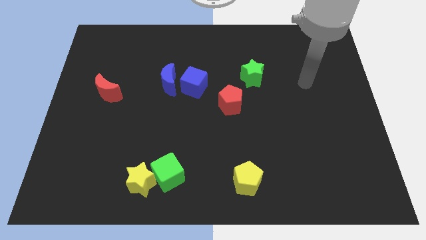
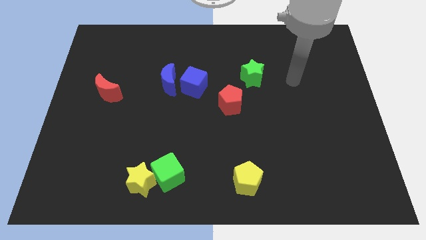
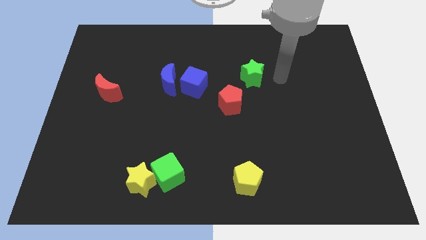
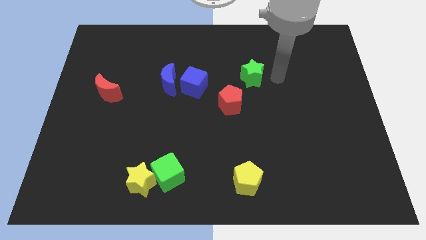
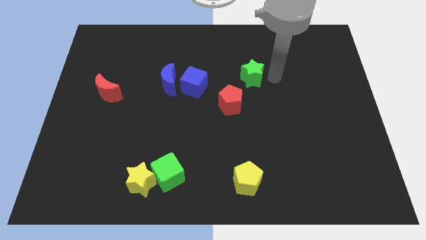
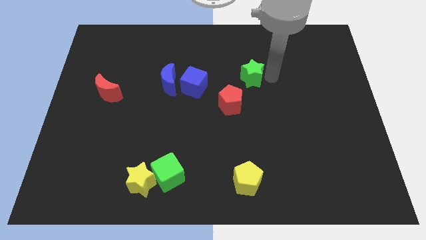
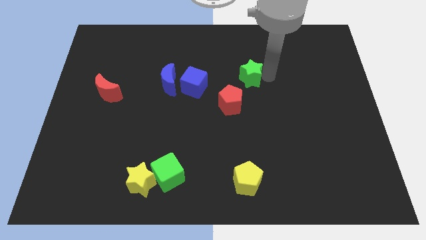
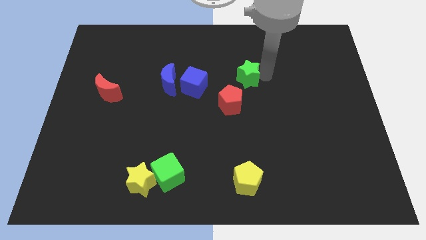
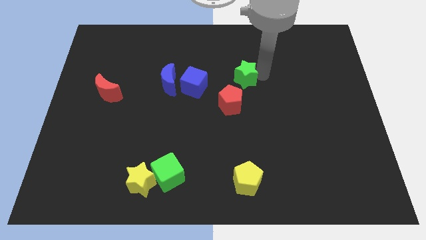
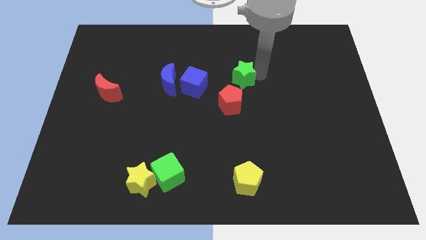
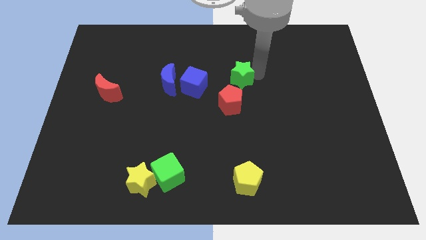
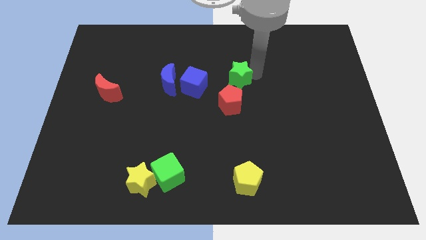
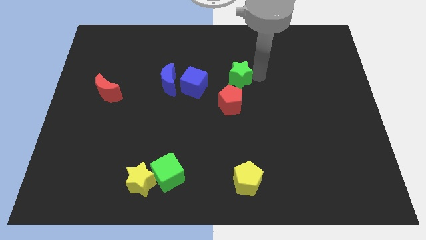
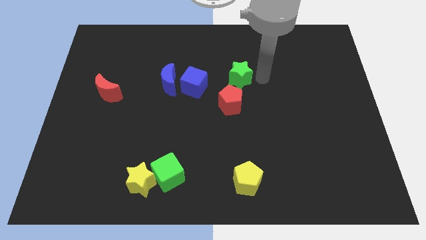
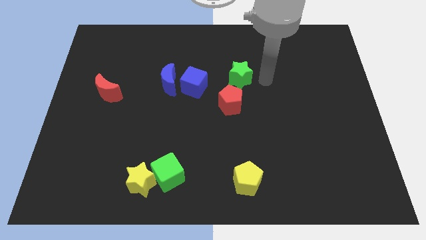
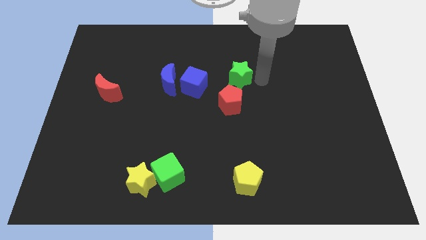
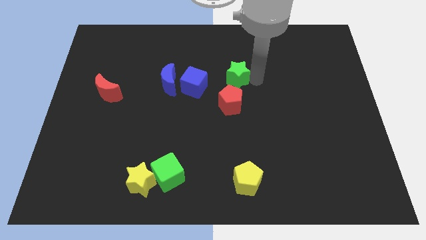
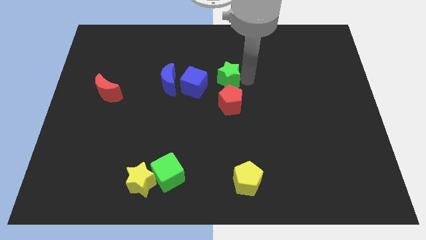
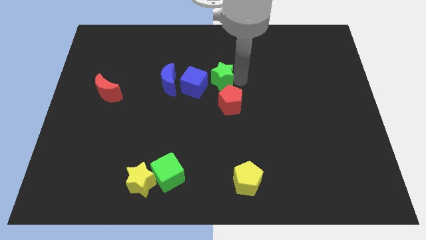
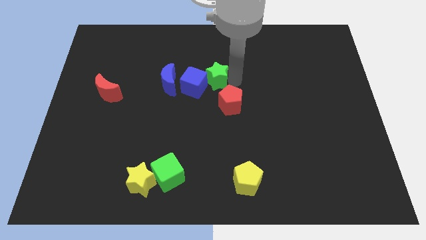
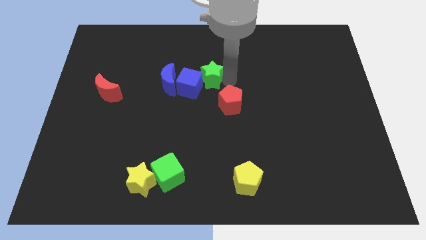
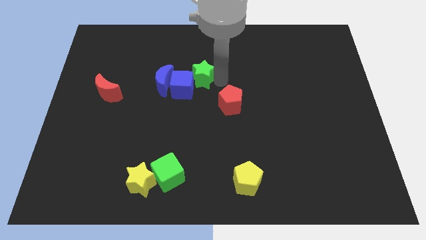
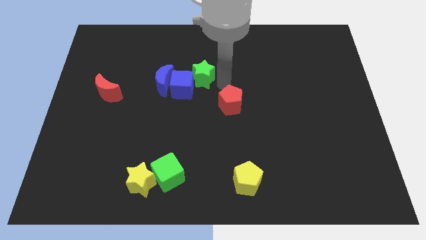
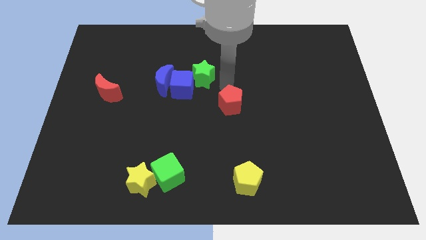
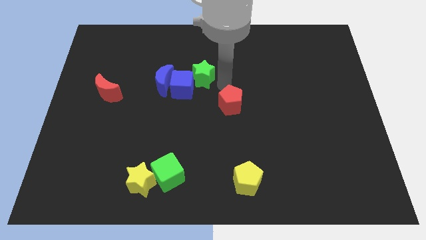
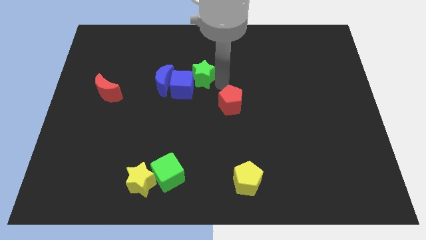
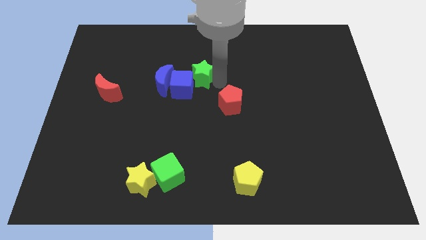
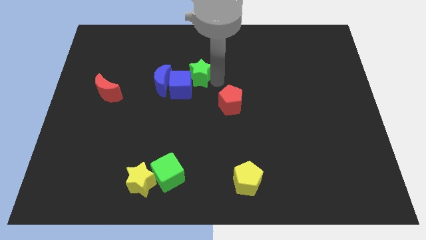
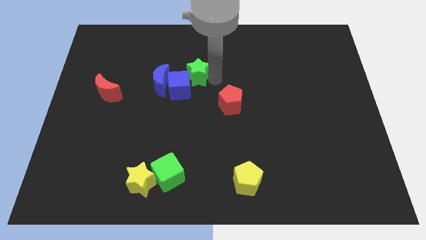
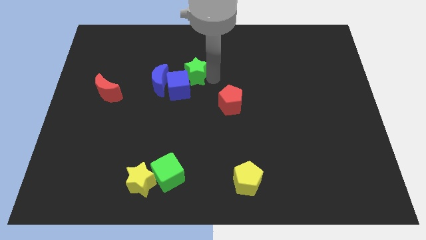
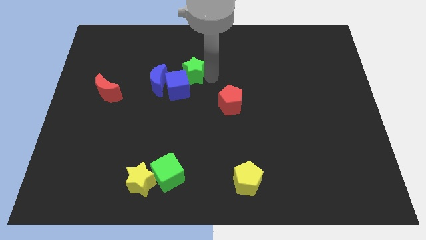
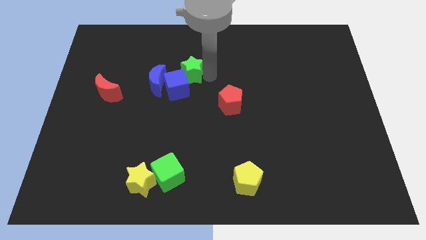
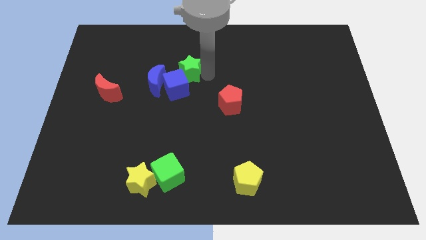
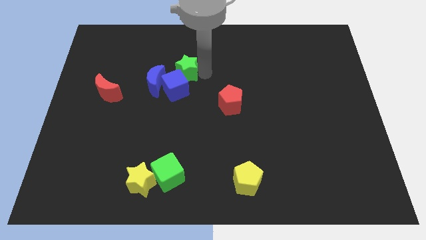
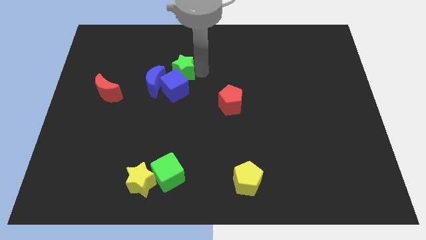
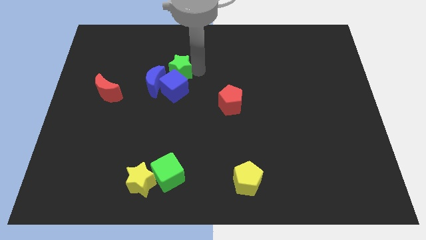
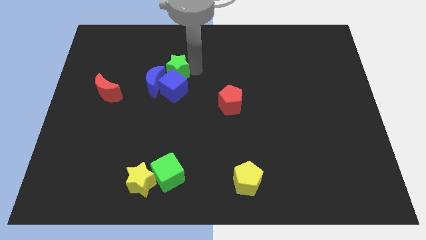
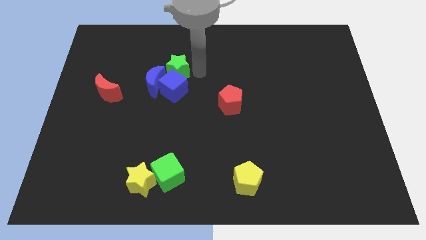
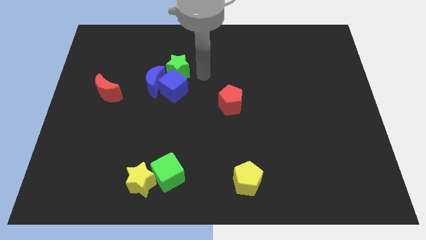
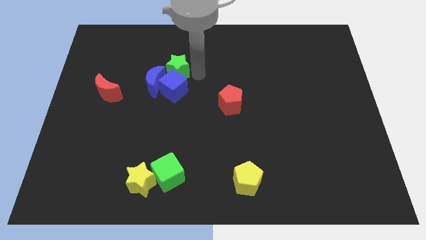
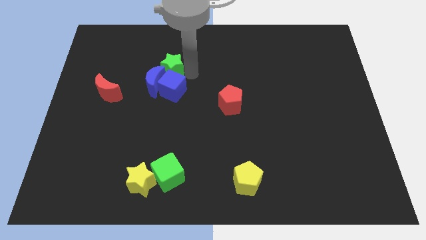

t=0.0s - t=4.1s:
move the green star left

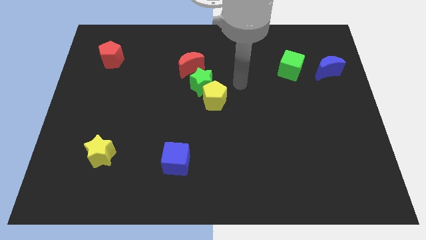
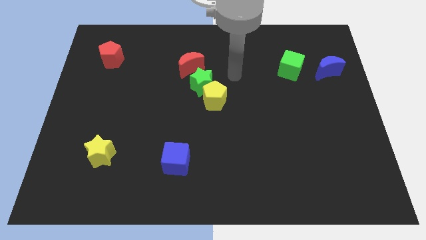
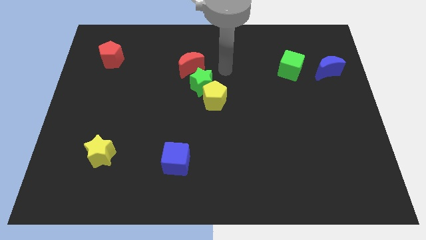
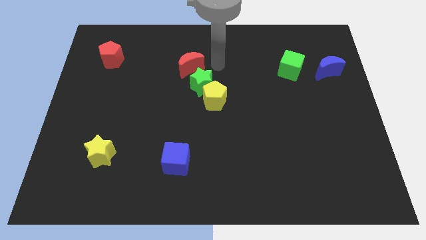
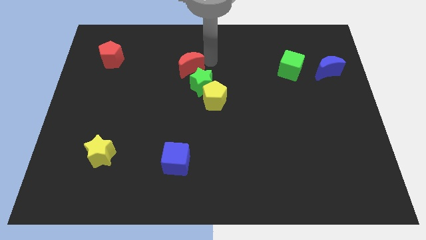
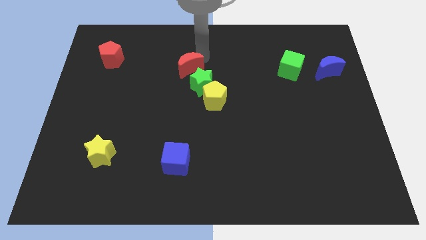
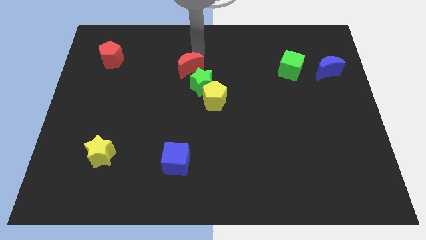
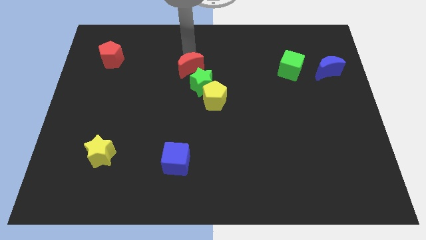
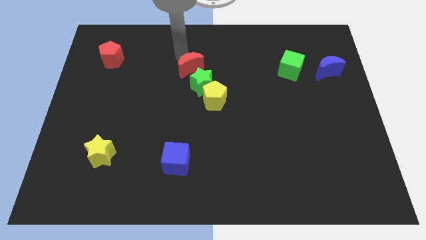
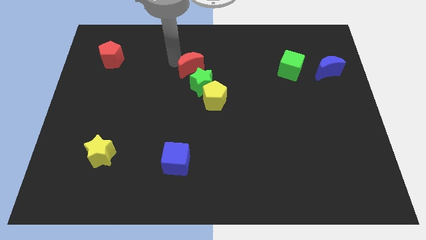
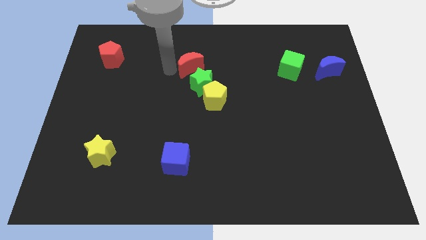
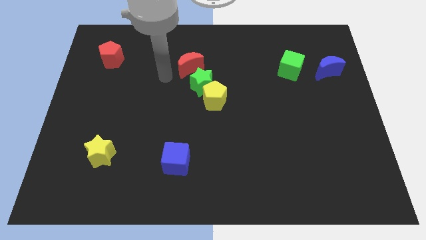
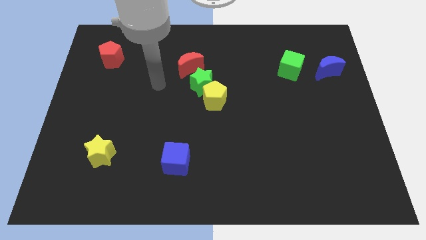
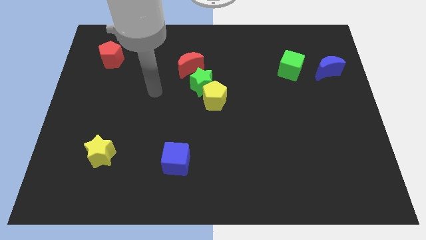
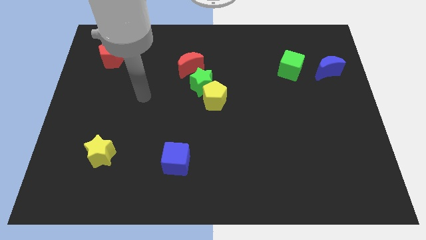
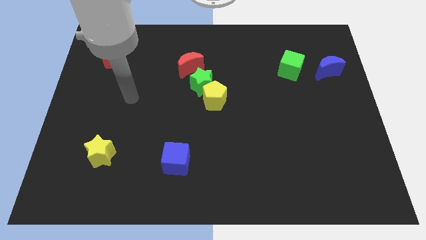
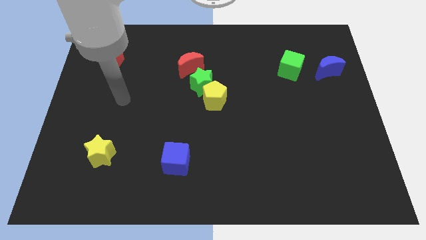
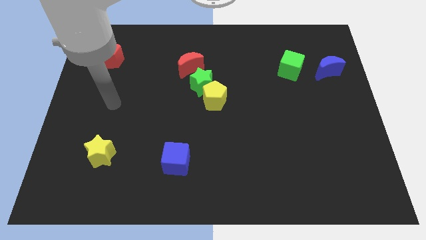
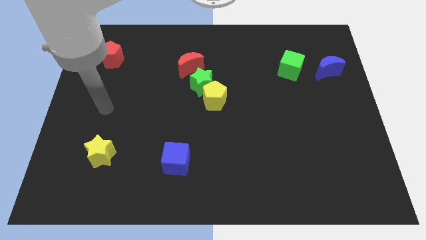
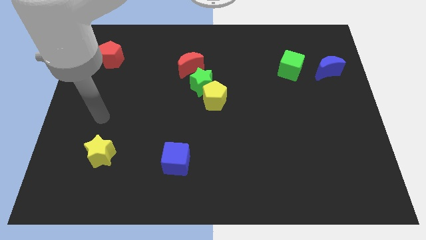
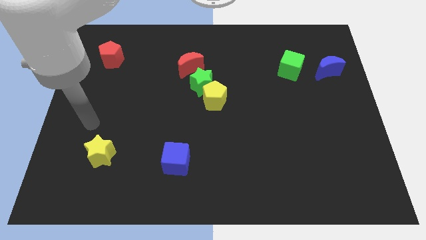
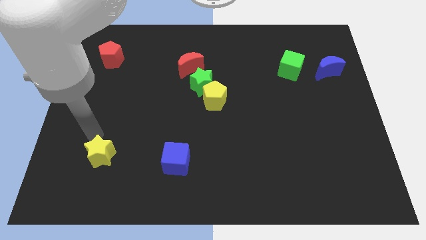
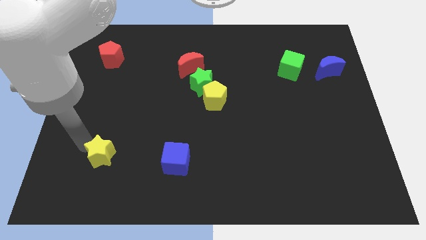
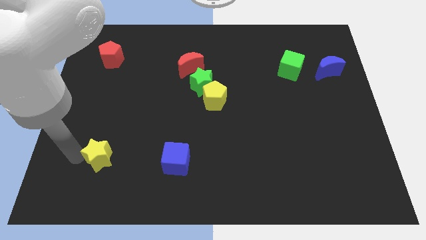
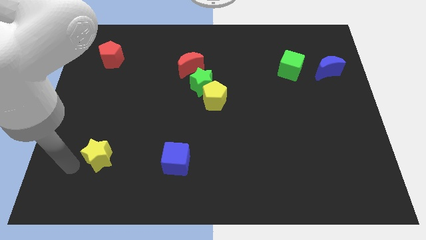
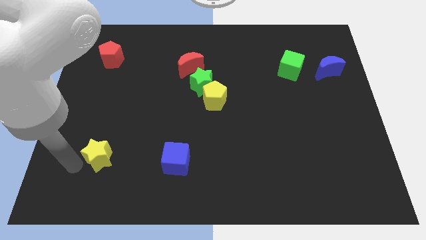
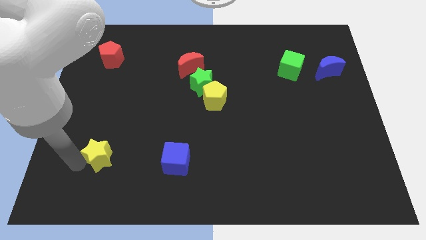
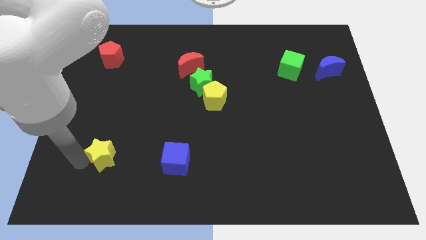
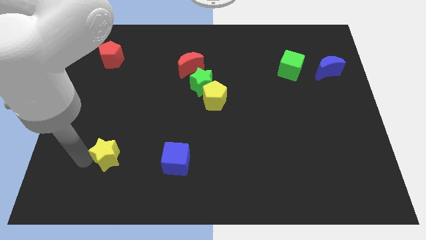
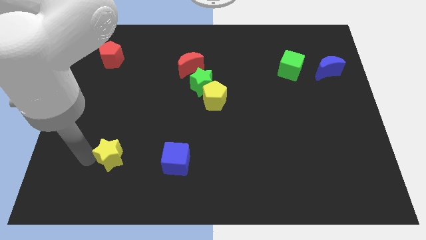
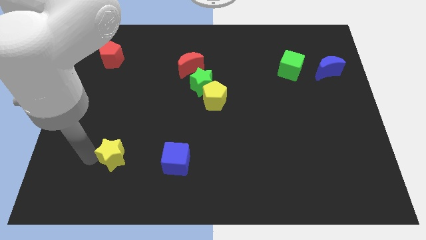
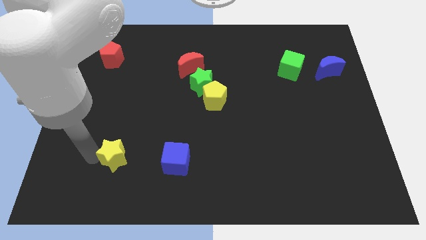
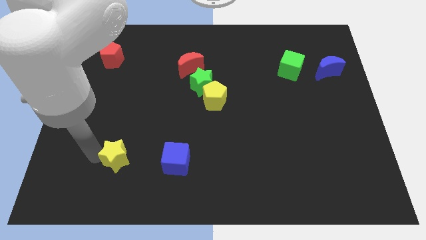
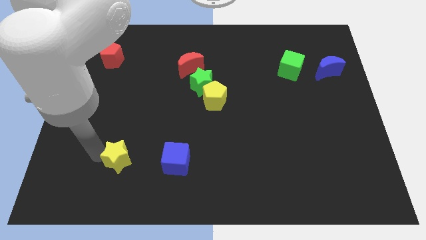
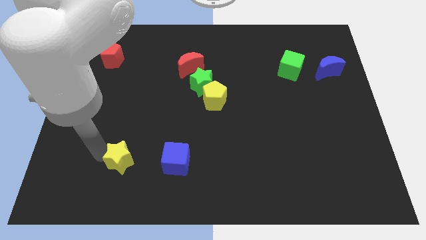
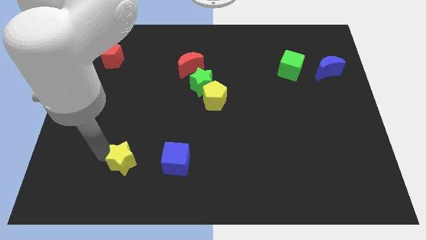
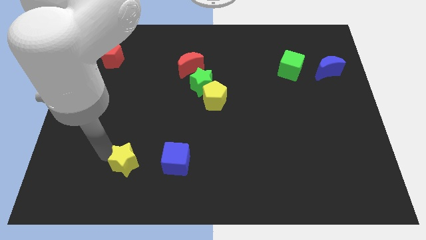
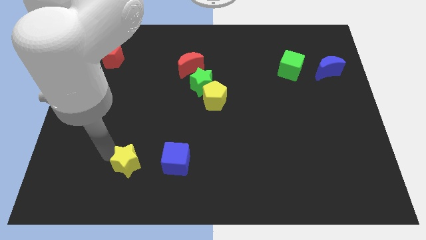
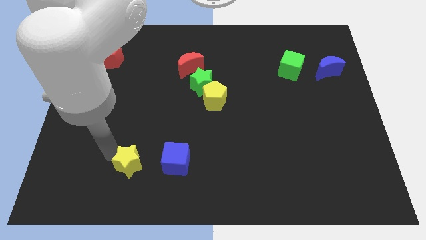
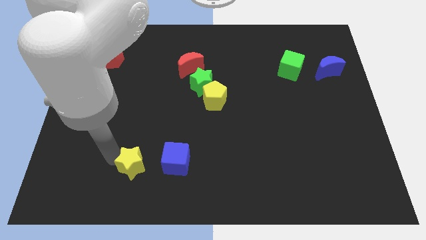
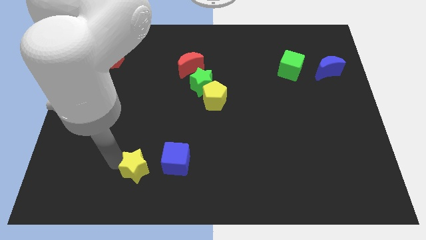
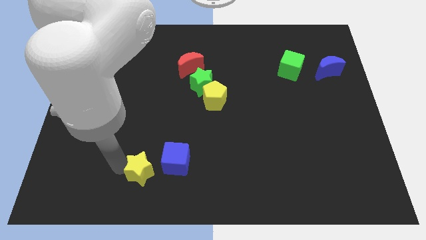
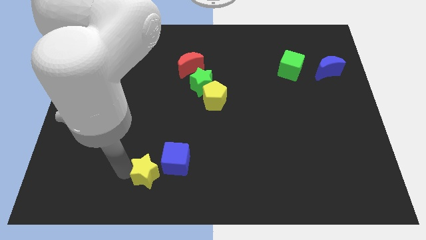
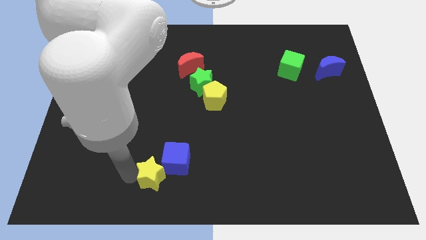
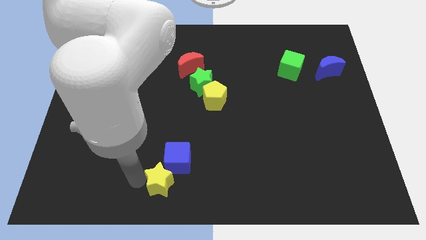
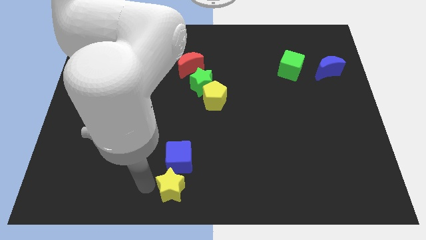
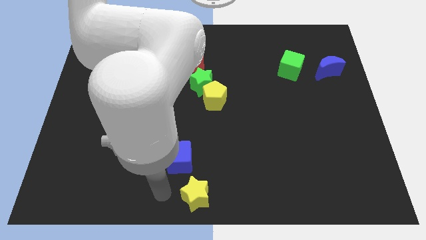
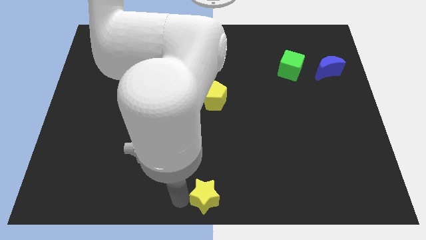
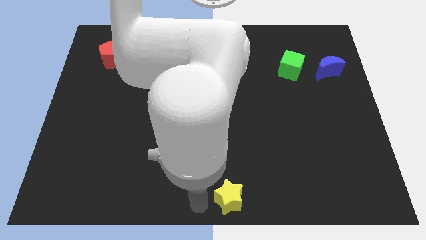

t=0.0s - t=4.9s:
move the yellow star right
